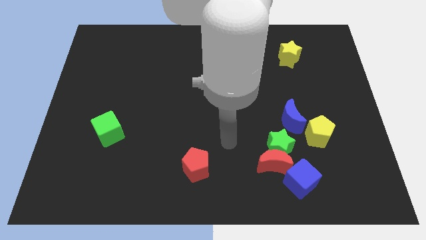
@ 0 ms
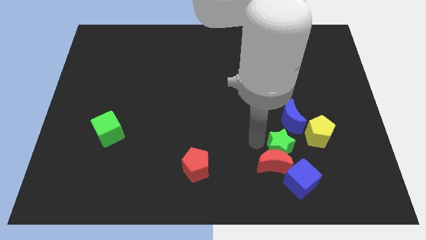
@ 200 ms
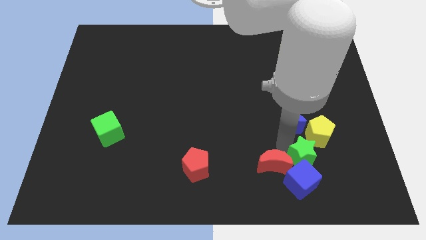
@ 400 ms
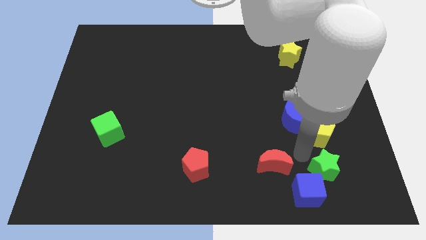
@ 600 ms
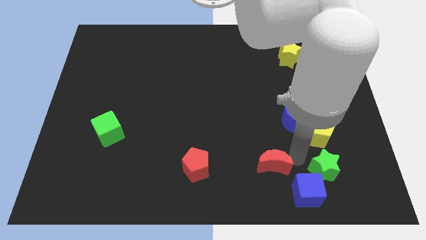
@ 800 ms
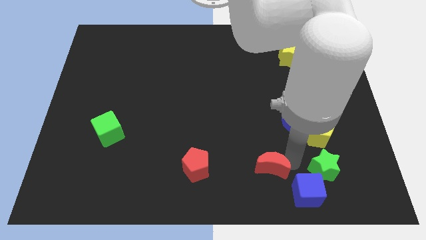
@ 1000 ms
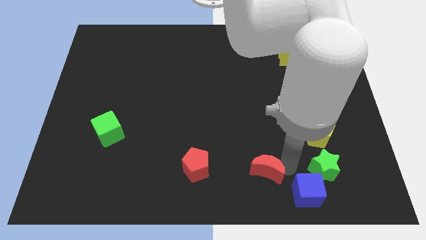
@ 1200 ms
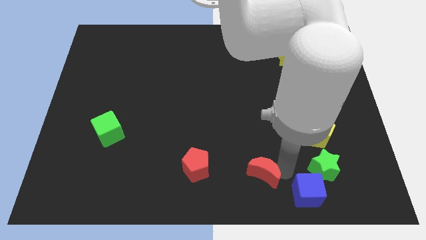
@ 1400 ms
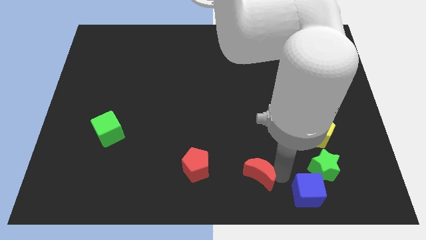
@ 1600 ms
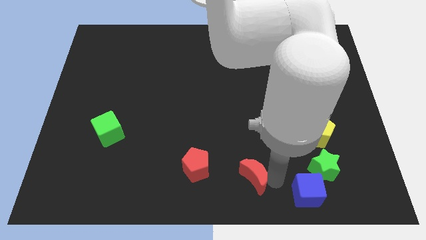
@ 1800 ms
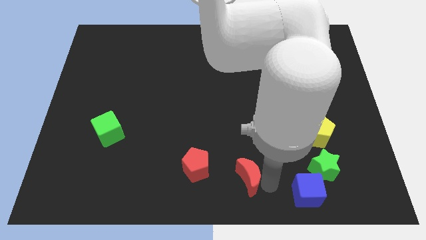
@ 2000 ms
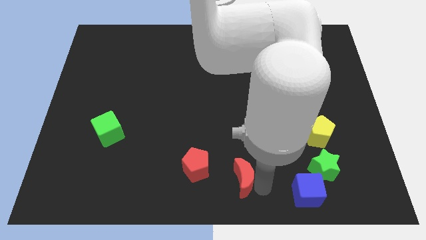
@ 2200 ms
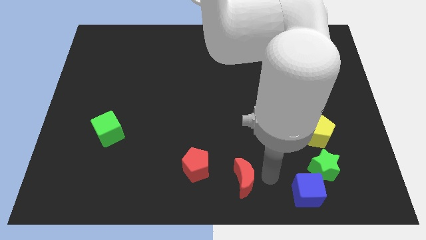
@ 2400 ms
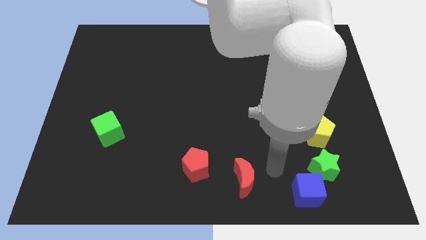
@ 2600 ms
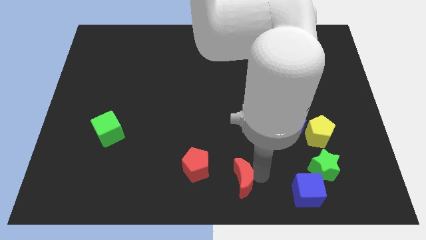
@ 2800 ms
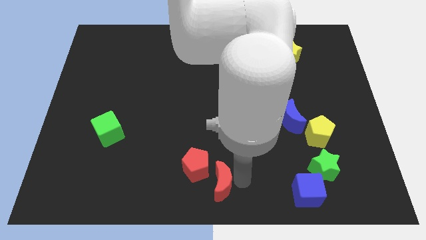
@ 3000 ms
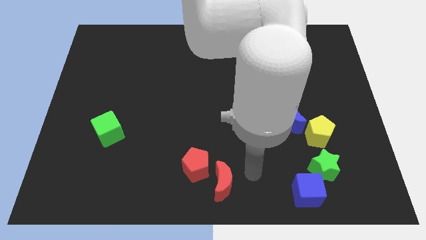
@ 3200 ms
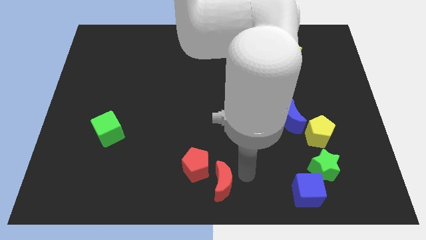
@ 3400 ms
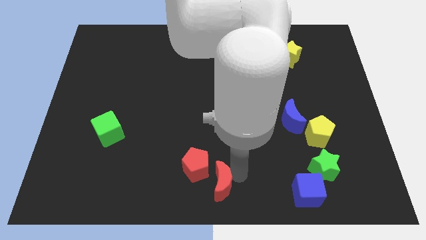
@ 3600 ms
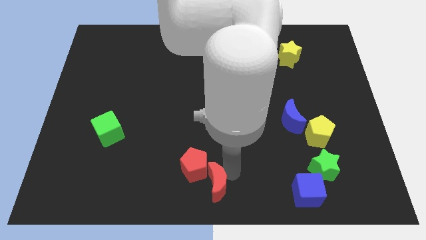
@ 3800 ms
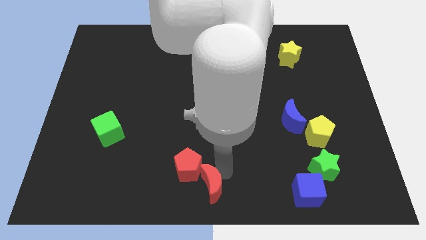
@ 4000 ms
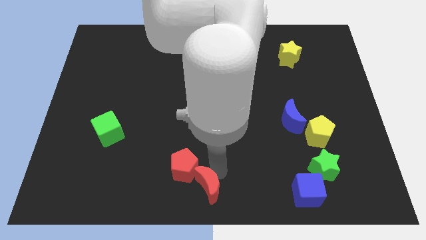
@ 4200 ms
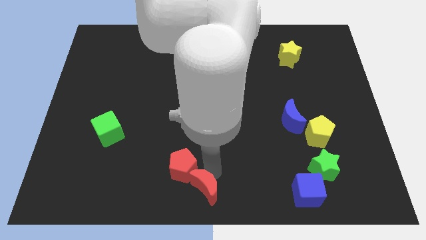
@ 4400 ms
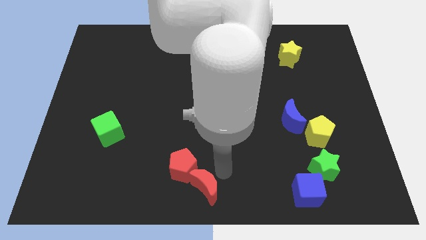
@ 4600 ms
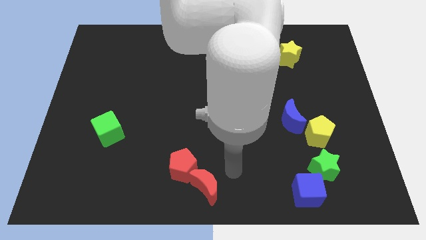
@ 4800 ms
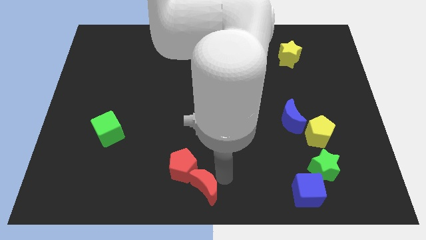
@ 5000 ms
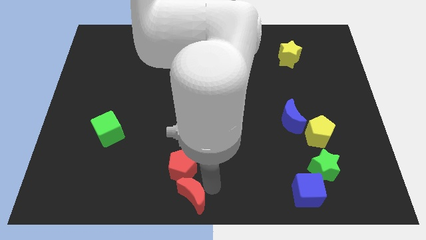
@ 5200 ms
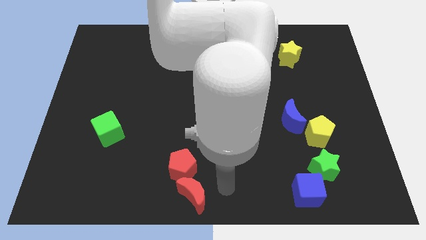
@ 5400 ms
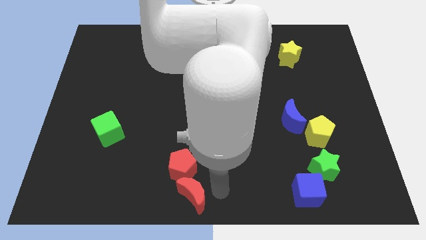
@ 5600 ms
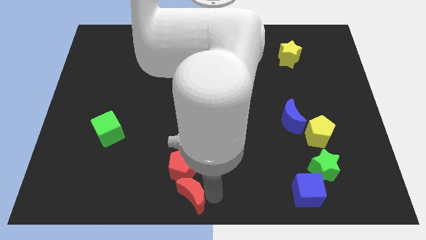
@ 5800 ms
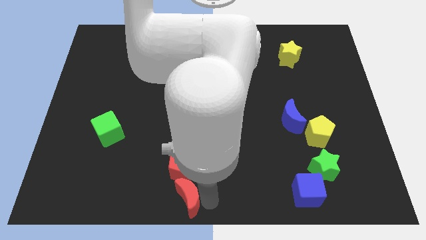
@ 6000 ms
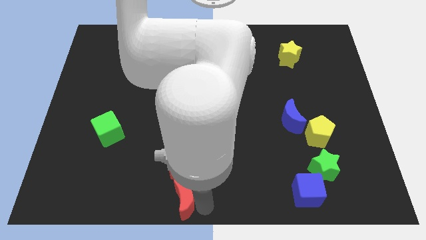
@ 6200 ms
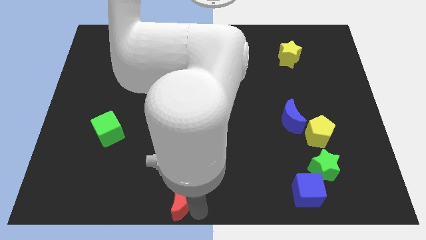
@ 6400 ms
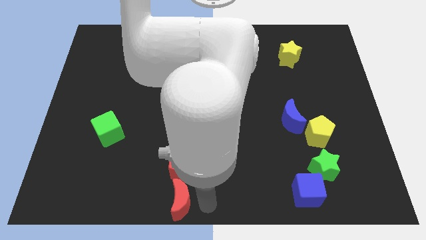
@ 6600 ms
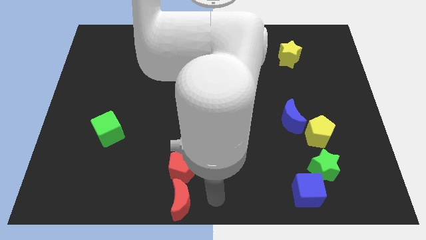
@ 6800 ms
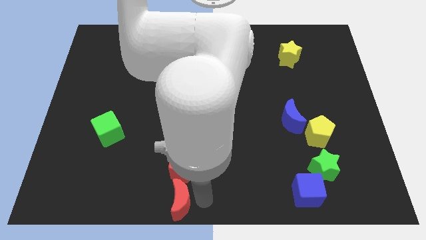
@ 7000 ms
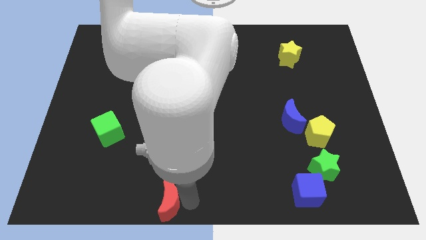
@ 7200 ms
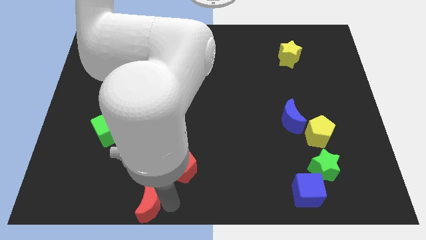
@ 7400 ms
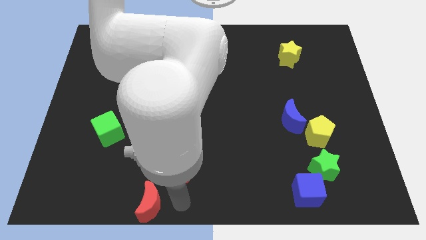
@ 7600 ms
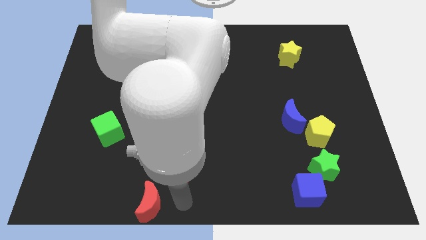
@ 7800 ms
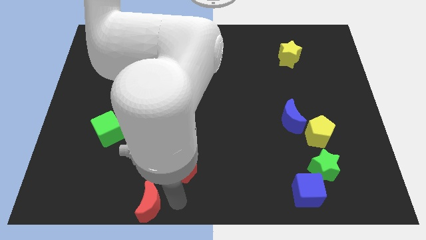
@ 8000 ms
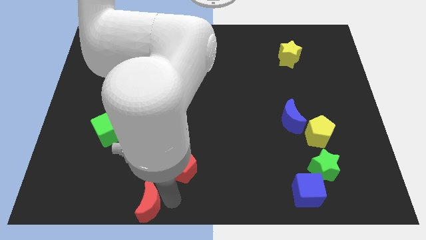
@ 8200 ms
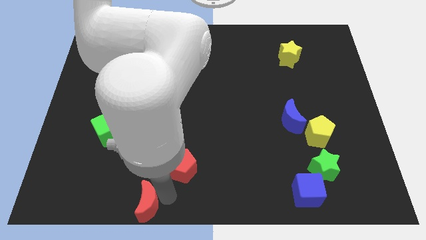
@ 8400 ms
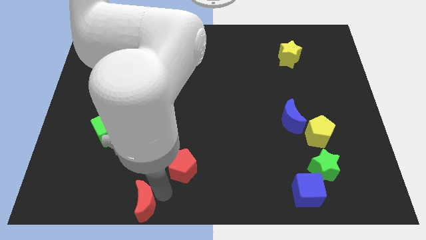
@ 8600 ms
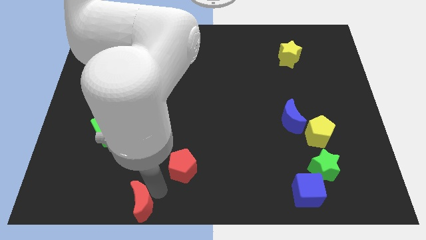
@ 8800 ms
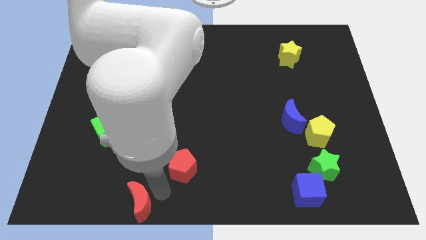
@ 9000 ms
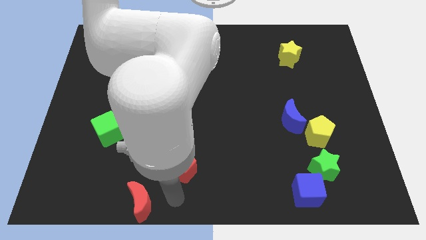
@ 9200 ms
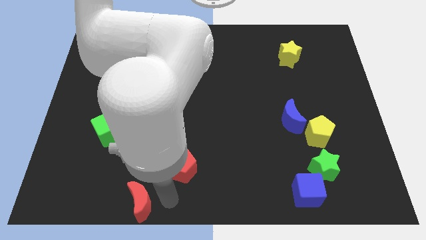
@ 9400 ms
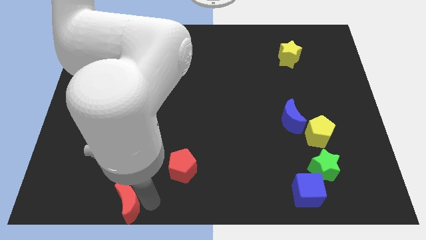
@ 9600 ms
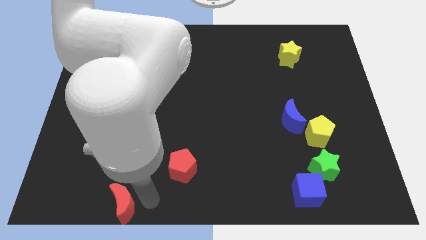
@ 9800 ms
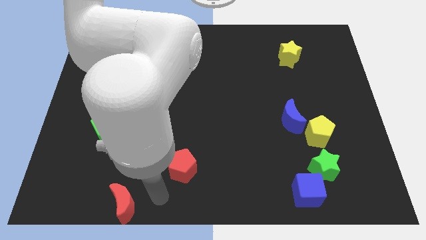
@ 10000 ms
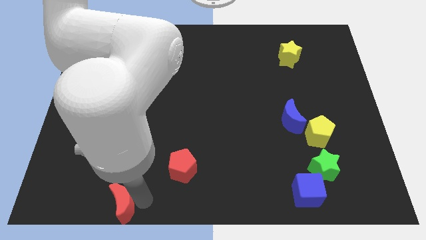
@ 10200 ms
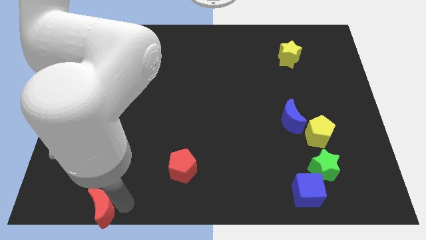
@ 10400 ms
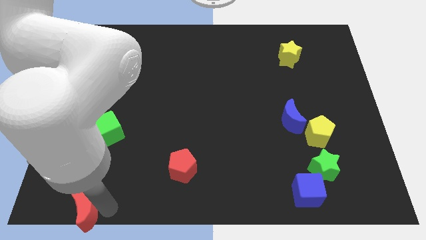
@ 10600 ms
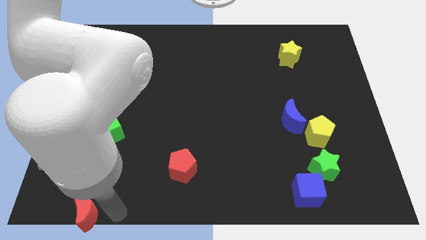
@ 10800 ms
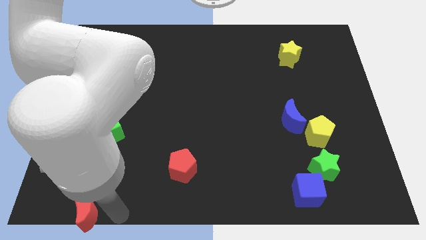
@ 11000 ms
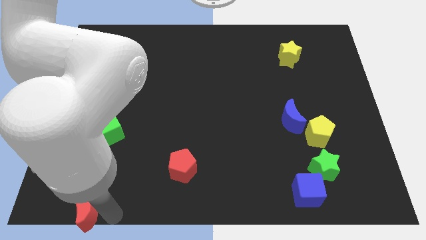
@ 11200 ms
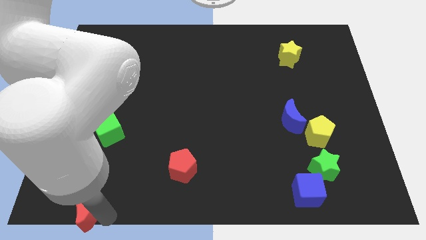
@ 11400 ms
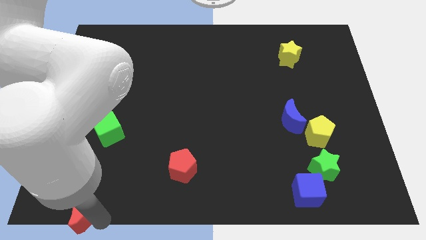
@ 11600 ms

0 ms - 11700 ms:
put the red moon to the bottom left of the board

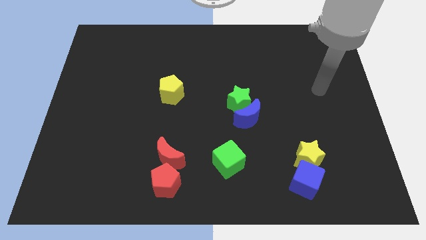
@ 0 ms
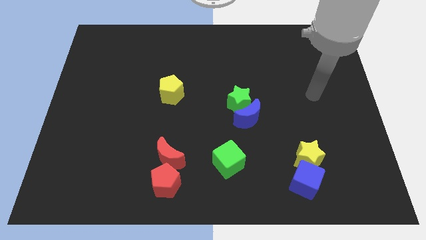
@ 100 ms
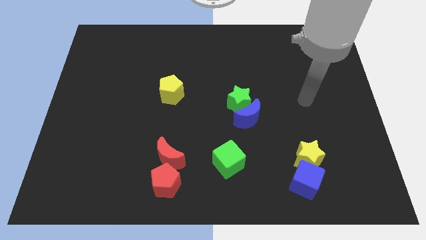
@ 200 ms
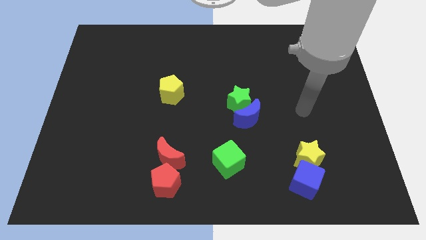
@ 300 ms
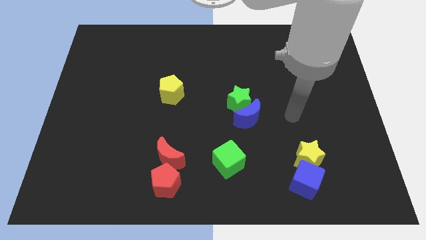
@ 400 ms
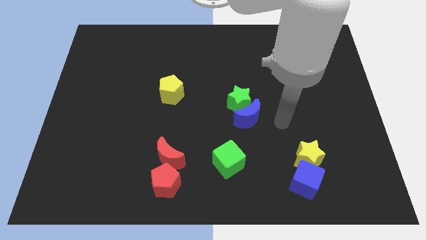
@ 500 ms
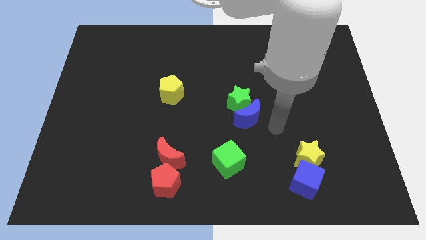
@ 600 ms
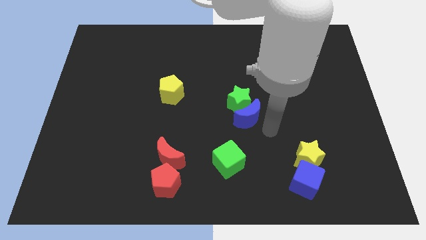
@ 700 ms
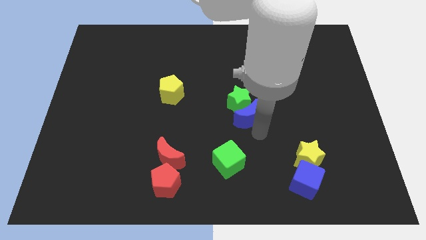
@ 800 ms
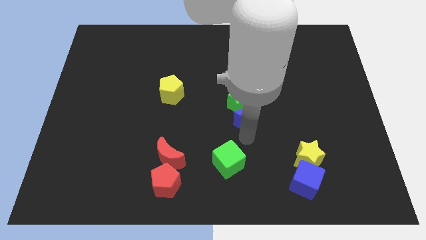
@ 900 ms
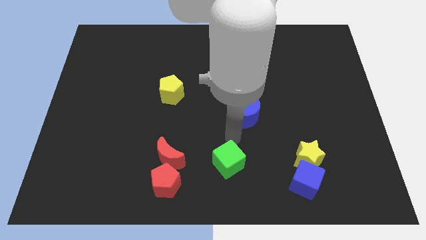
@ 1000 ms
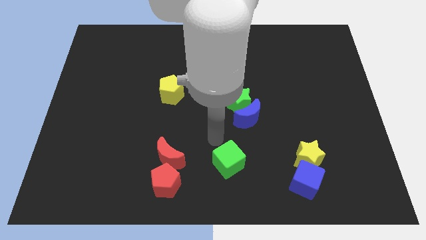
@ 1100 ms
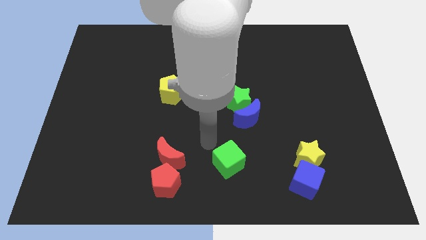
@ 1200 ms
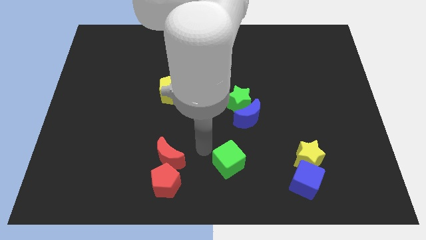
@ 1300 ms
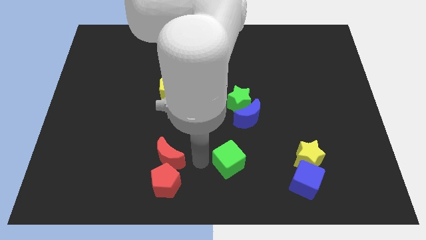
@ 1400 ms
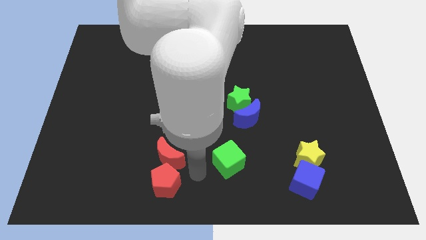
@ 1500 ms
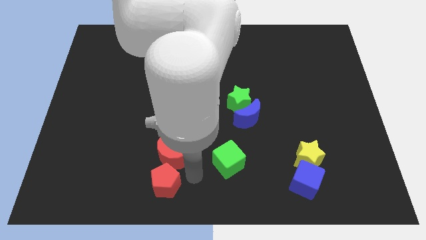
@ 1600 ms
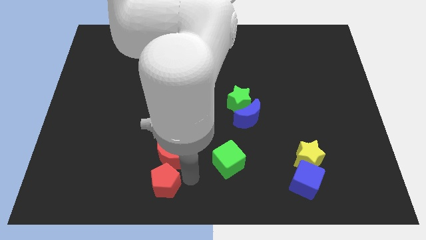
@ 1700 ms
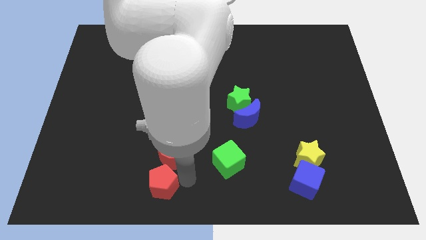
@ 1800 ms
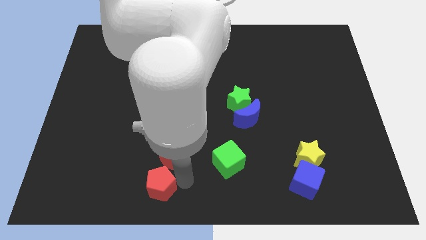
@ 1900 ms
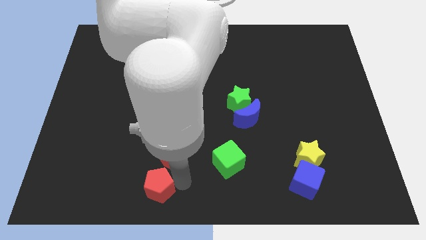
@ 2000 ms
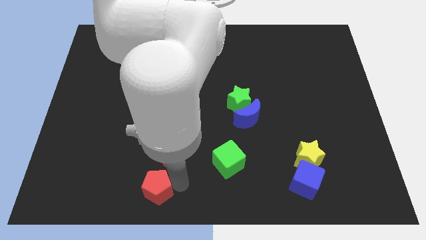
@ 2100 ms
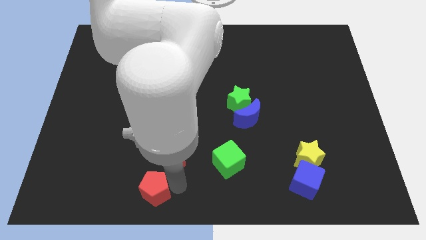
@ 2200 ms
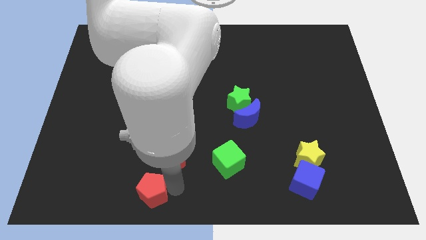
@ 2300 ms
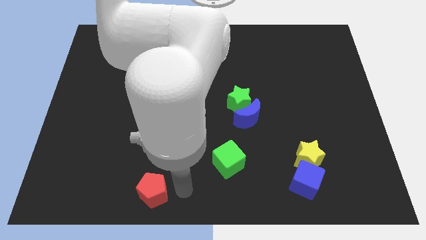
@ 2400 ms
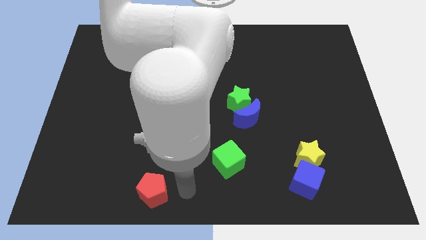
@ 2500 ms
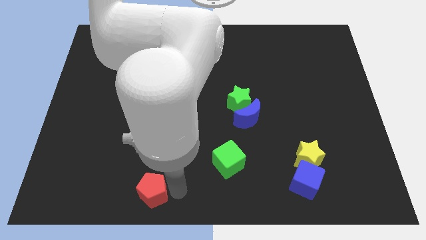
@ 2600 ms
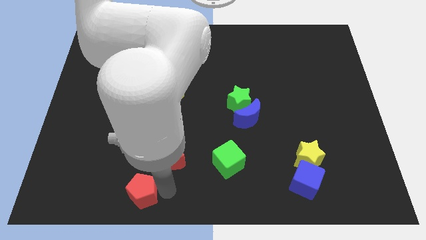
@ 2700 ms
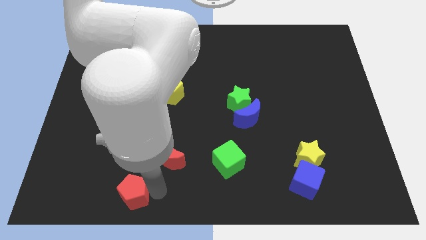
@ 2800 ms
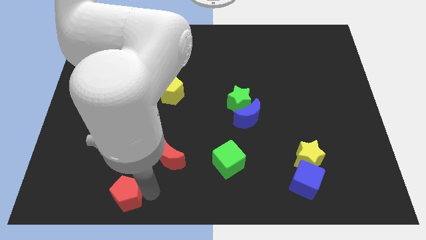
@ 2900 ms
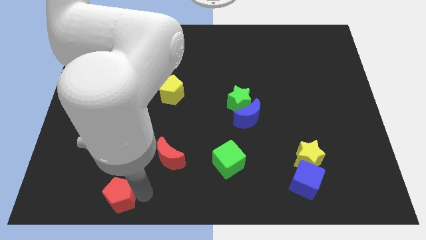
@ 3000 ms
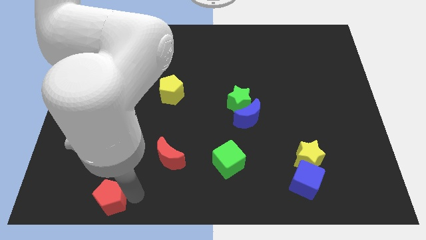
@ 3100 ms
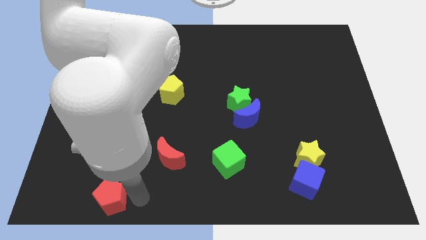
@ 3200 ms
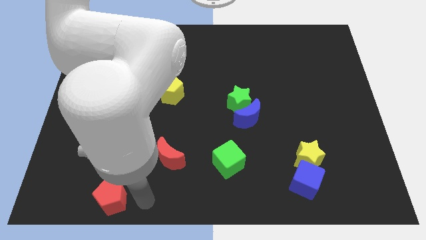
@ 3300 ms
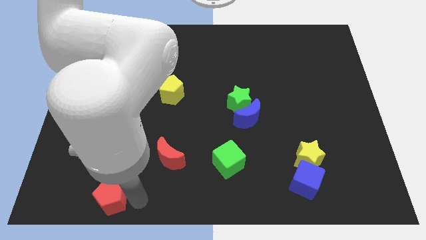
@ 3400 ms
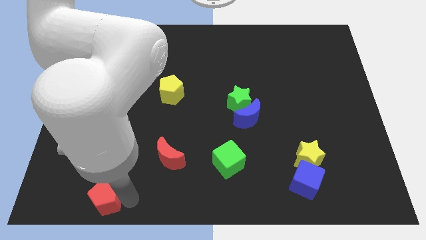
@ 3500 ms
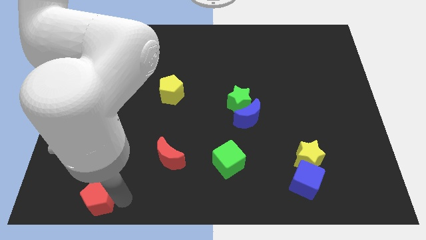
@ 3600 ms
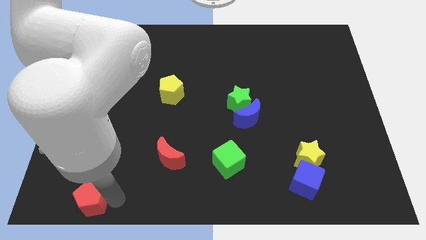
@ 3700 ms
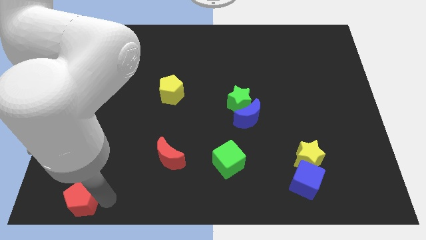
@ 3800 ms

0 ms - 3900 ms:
move the red pentagon to the bottom left
